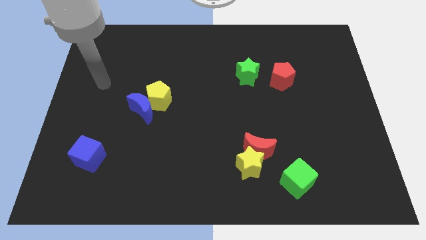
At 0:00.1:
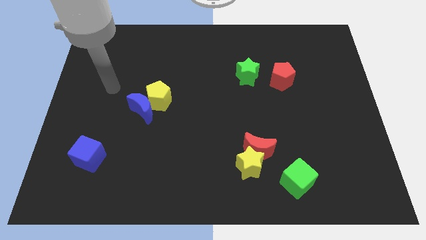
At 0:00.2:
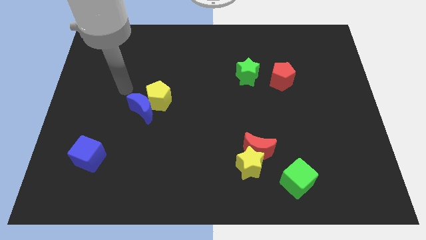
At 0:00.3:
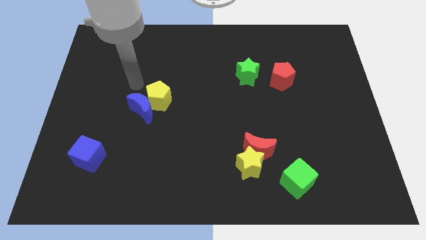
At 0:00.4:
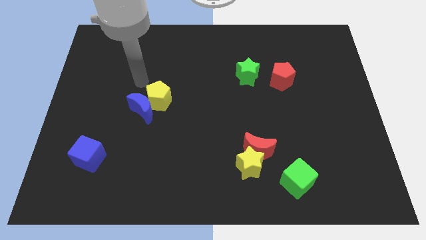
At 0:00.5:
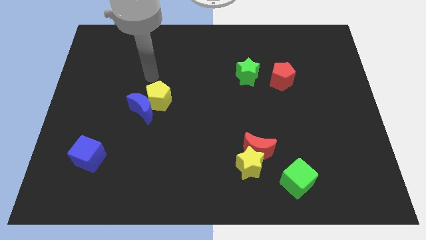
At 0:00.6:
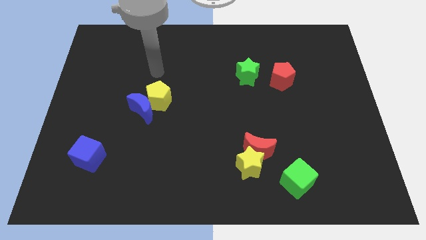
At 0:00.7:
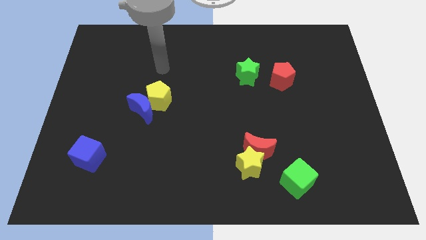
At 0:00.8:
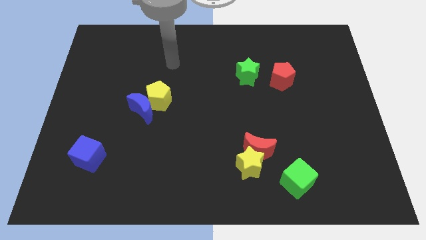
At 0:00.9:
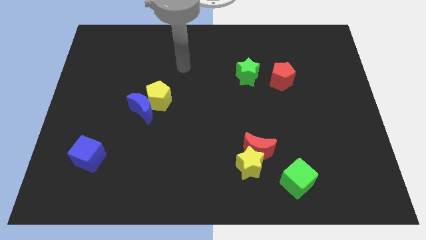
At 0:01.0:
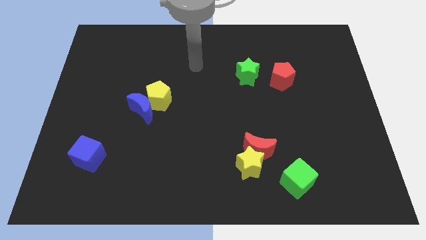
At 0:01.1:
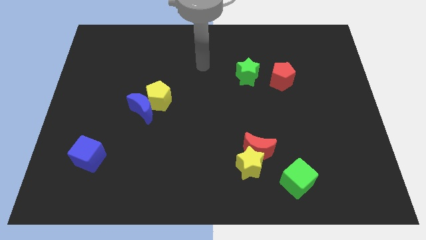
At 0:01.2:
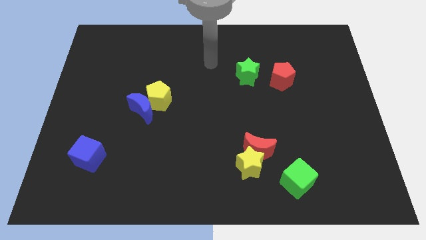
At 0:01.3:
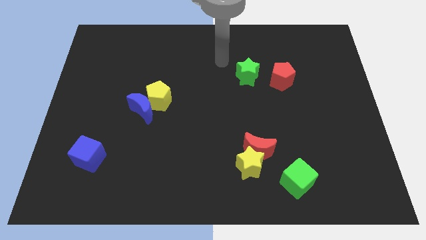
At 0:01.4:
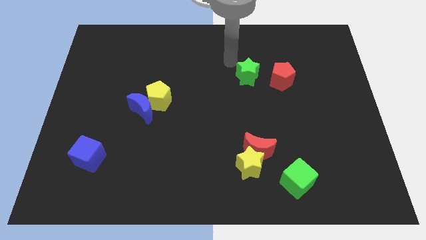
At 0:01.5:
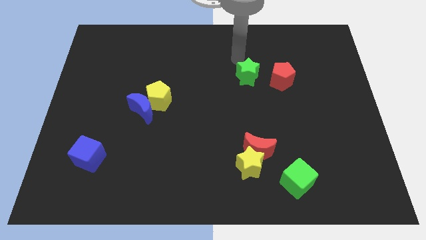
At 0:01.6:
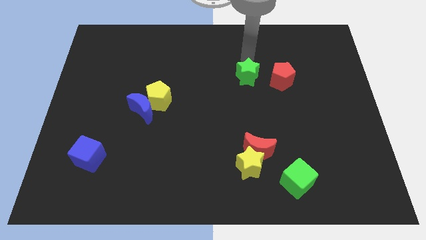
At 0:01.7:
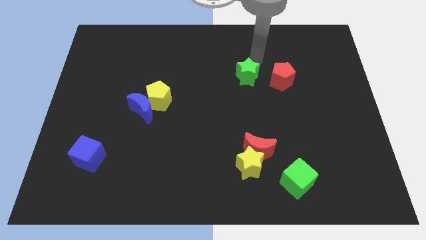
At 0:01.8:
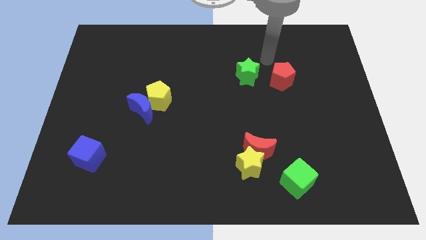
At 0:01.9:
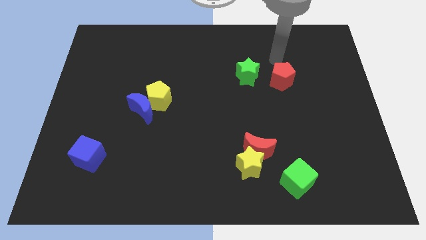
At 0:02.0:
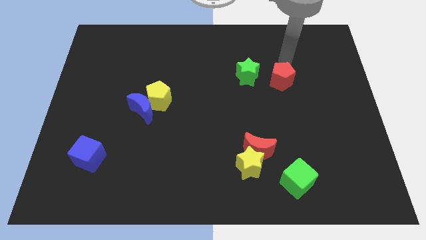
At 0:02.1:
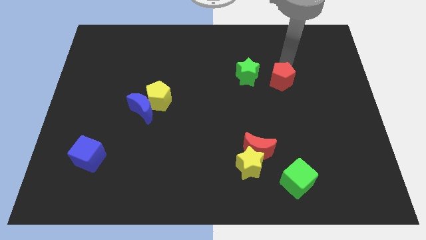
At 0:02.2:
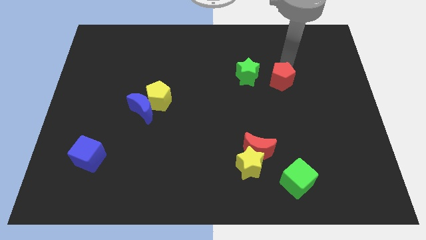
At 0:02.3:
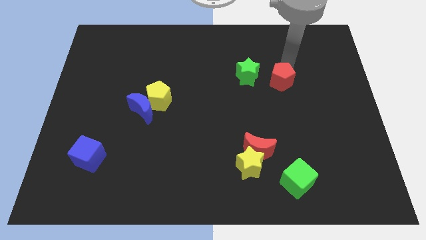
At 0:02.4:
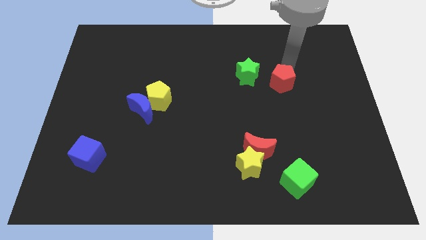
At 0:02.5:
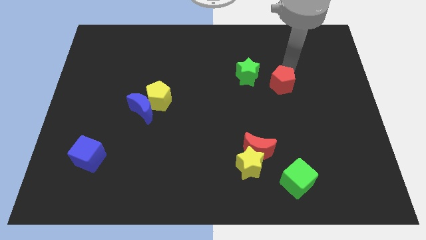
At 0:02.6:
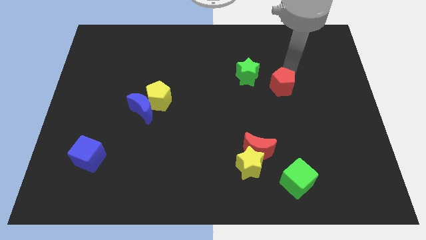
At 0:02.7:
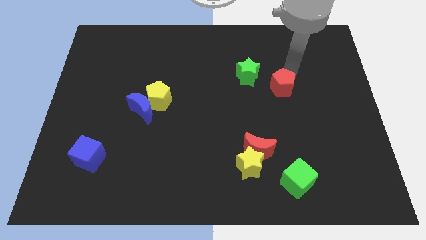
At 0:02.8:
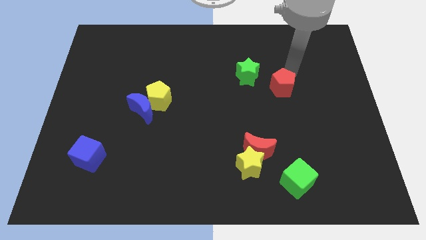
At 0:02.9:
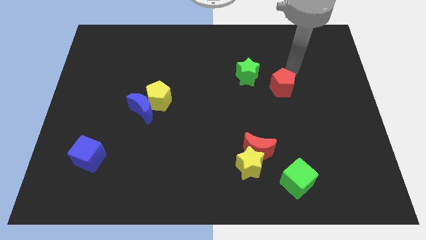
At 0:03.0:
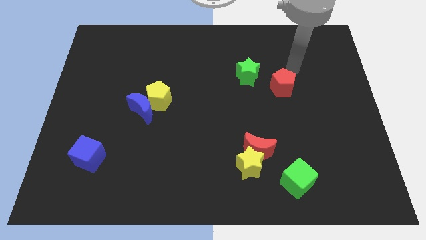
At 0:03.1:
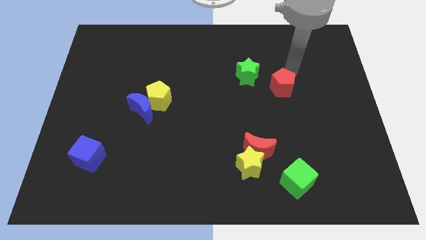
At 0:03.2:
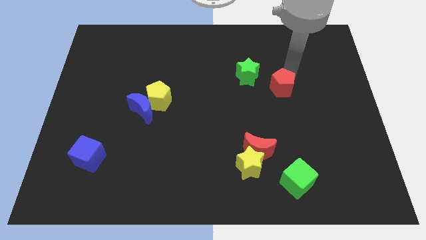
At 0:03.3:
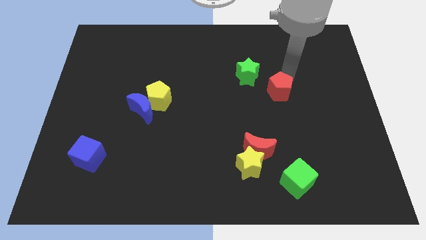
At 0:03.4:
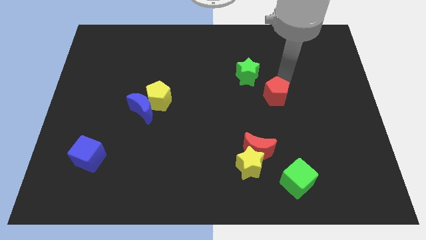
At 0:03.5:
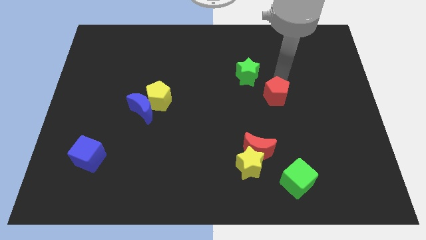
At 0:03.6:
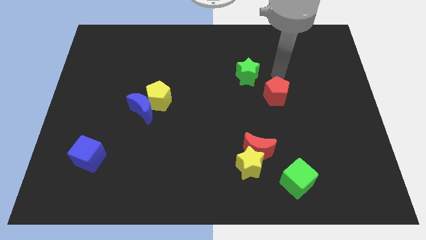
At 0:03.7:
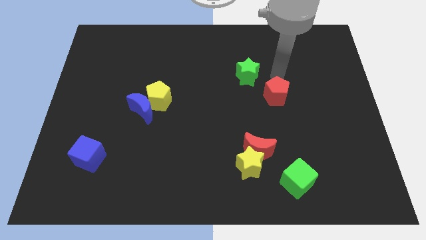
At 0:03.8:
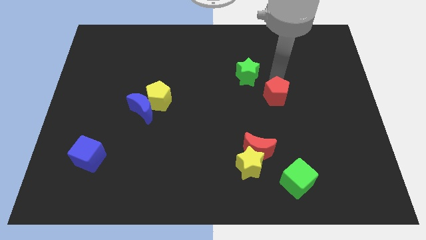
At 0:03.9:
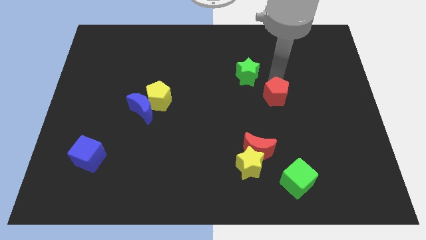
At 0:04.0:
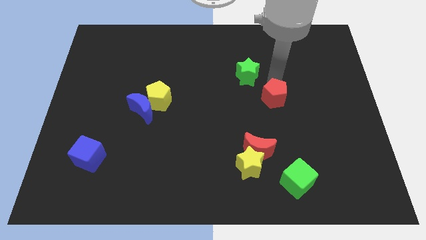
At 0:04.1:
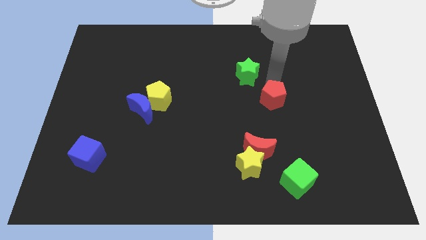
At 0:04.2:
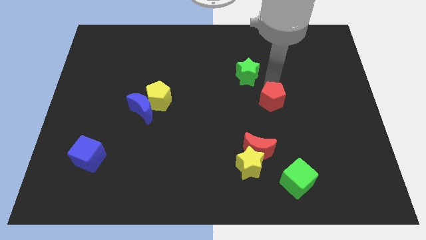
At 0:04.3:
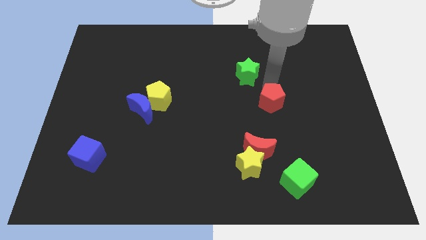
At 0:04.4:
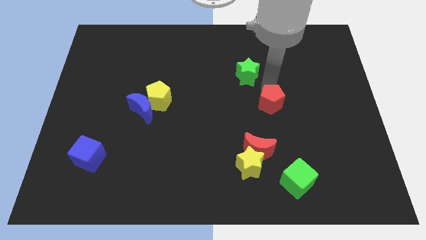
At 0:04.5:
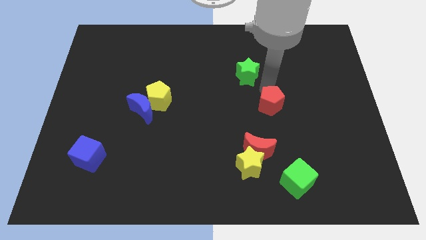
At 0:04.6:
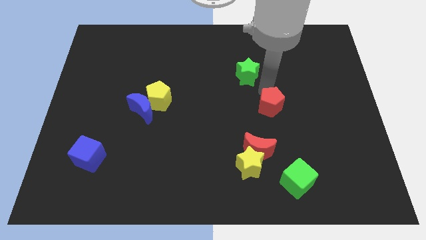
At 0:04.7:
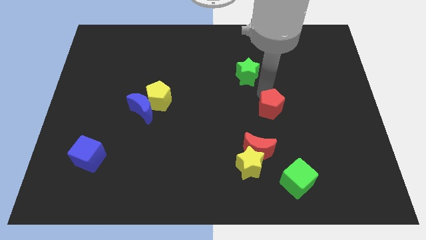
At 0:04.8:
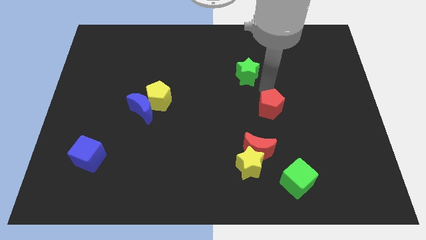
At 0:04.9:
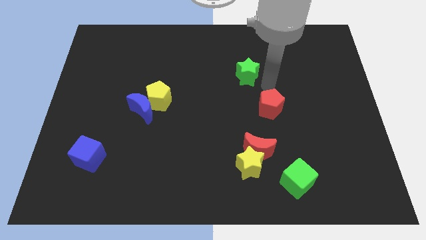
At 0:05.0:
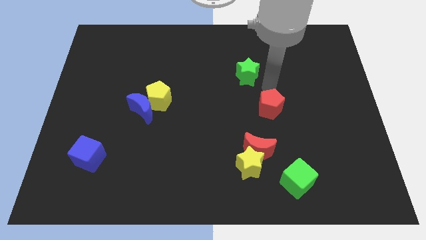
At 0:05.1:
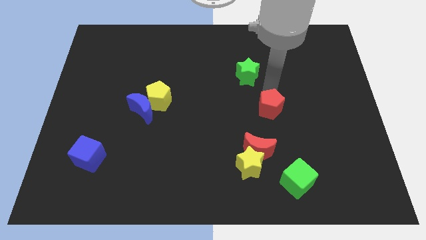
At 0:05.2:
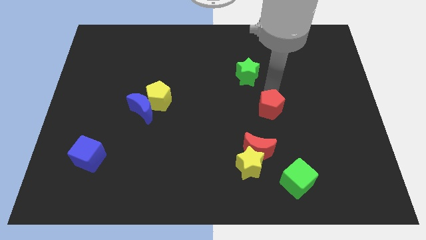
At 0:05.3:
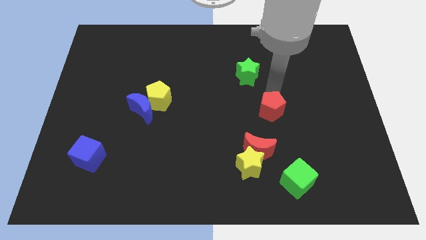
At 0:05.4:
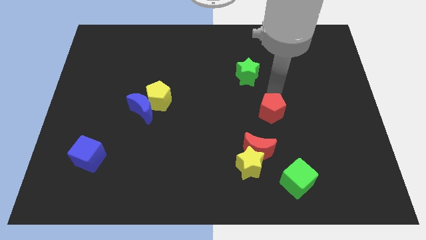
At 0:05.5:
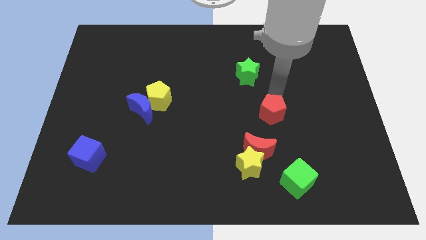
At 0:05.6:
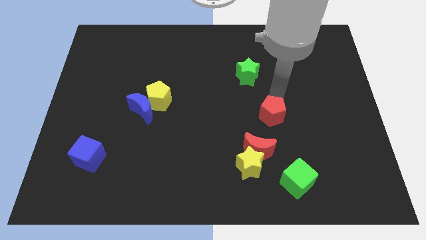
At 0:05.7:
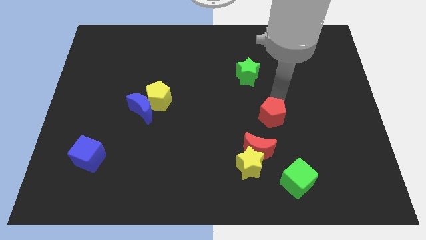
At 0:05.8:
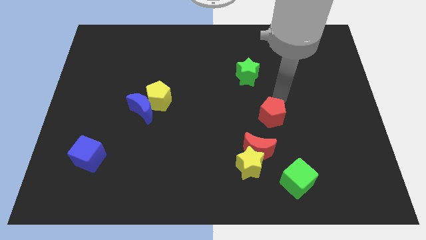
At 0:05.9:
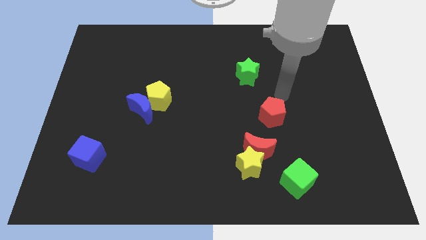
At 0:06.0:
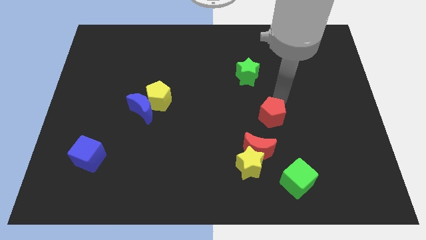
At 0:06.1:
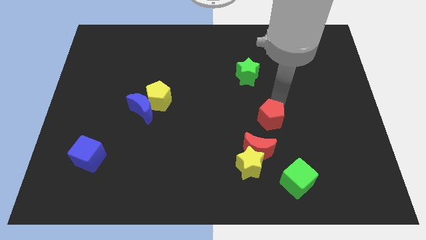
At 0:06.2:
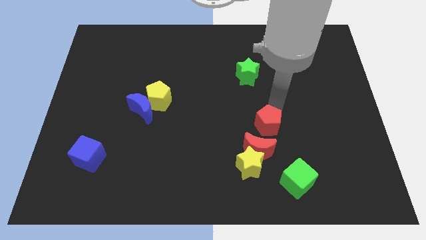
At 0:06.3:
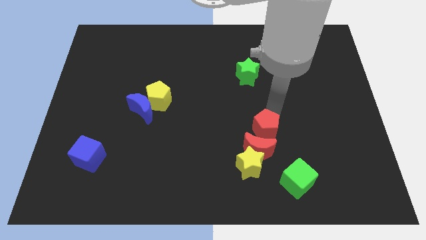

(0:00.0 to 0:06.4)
push the red pentagon to the red moon

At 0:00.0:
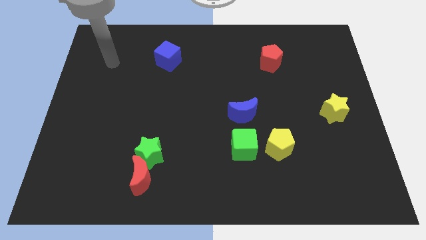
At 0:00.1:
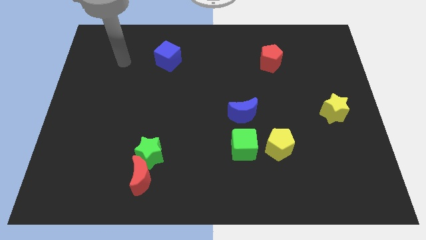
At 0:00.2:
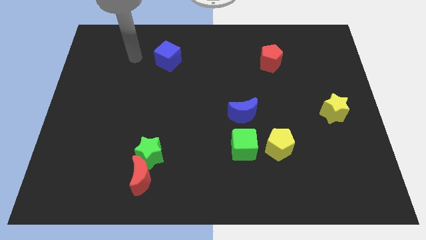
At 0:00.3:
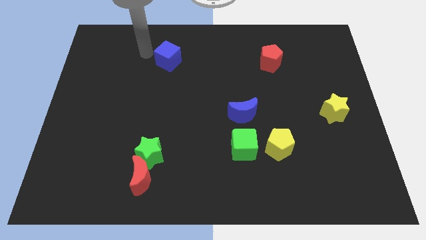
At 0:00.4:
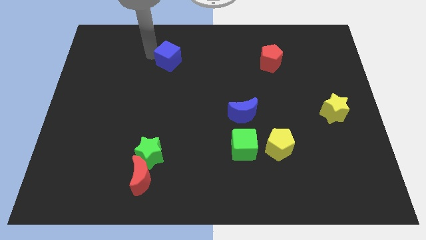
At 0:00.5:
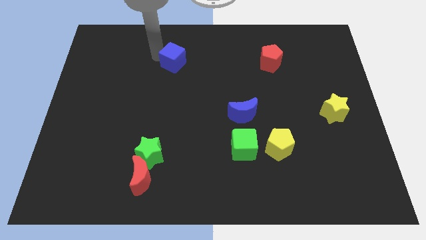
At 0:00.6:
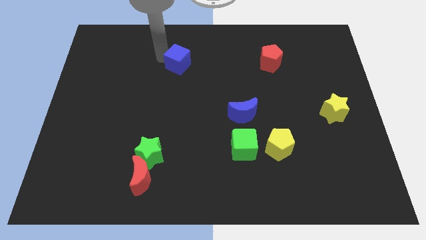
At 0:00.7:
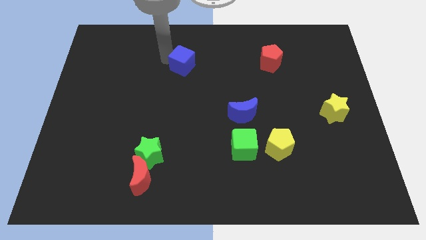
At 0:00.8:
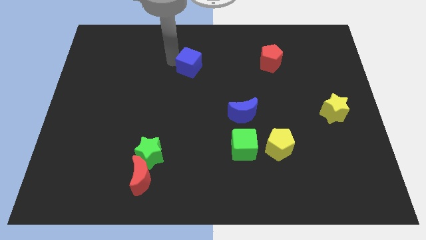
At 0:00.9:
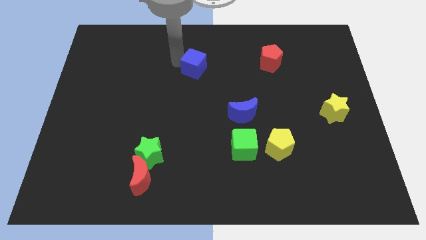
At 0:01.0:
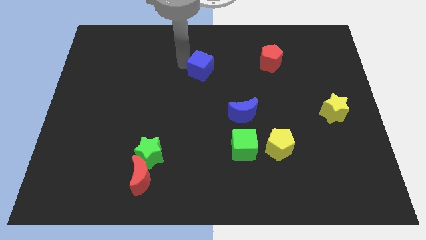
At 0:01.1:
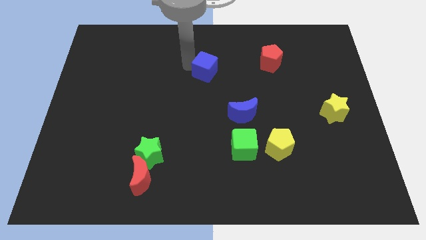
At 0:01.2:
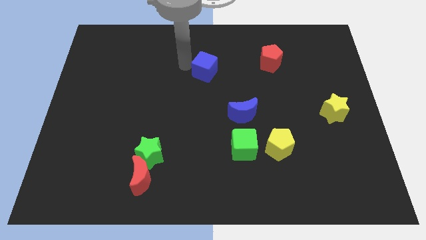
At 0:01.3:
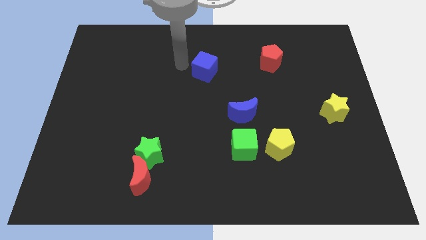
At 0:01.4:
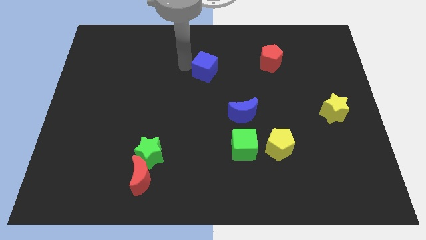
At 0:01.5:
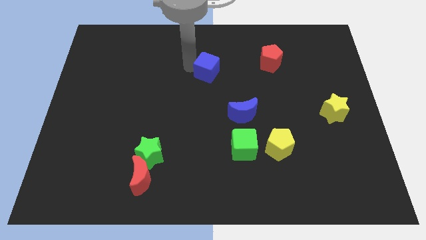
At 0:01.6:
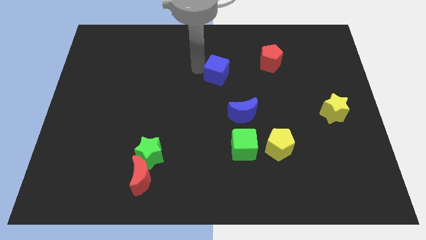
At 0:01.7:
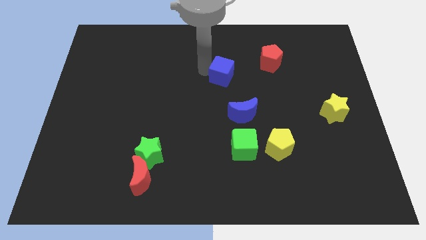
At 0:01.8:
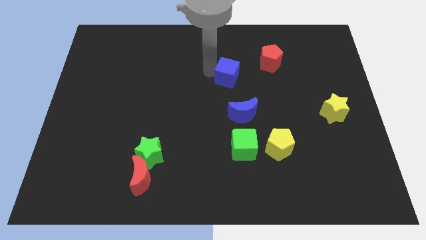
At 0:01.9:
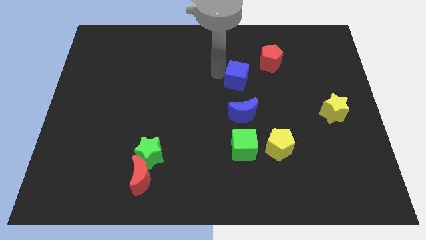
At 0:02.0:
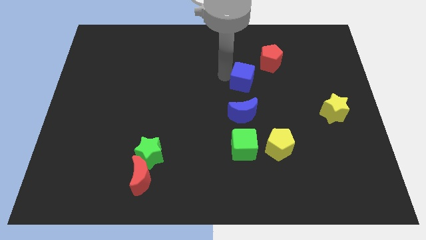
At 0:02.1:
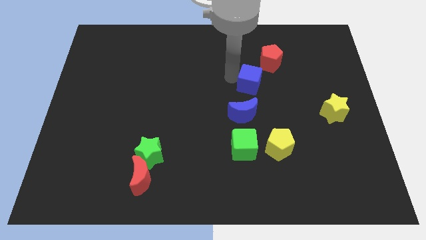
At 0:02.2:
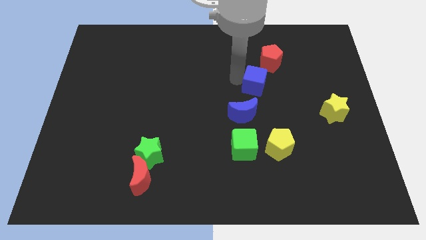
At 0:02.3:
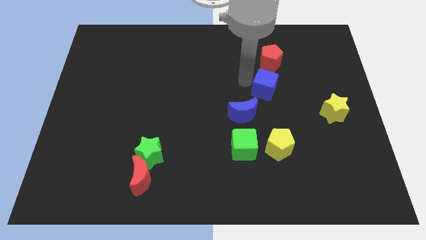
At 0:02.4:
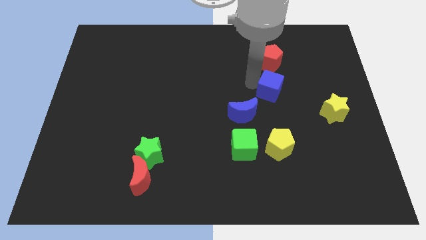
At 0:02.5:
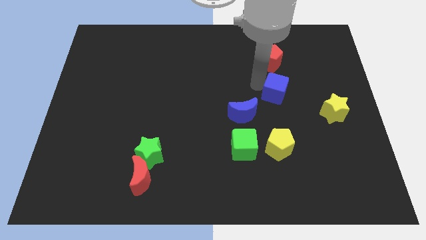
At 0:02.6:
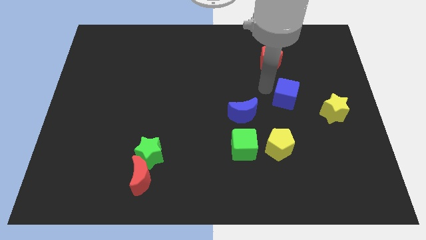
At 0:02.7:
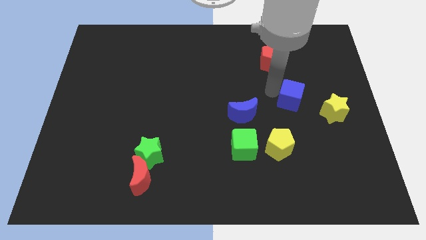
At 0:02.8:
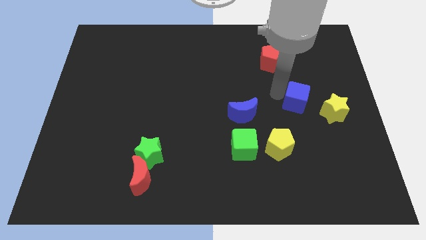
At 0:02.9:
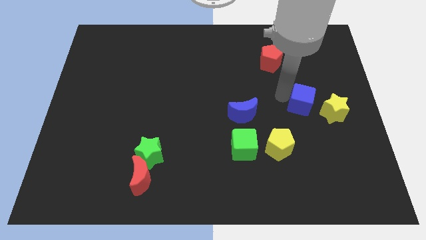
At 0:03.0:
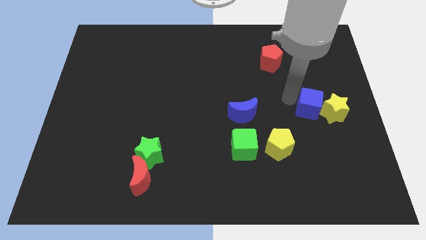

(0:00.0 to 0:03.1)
slide the blue cube to the yellow star
